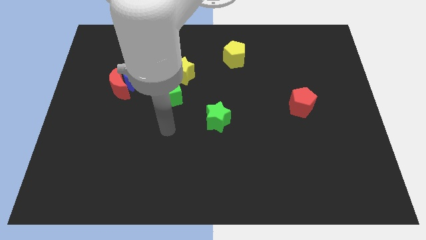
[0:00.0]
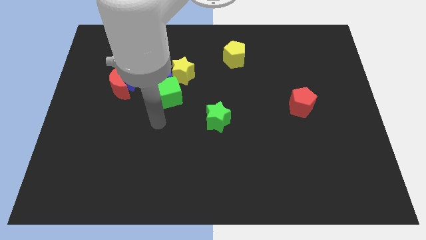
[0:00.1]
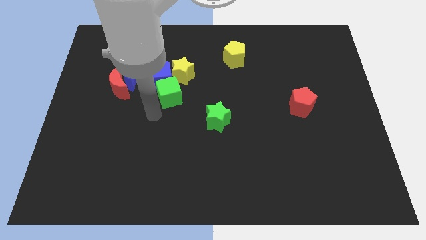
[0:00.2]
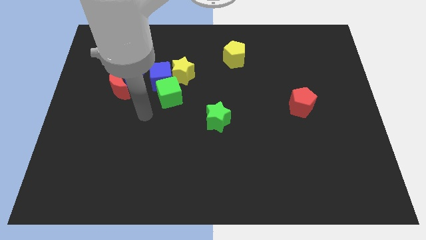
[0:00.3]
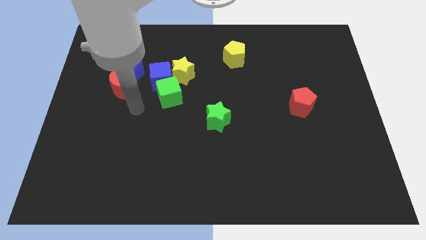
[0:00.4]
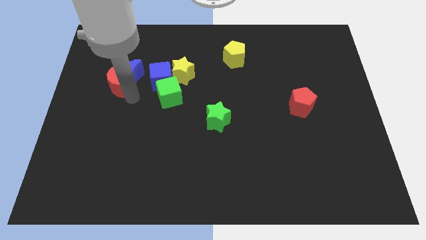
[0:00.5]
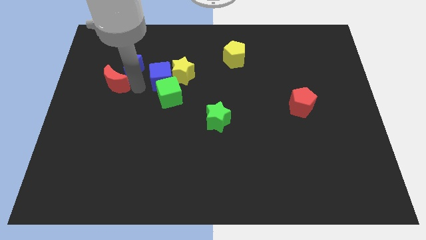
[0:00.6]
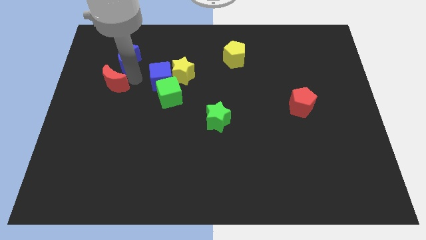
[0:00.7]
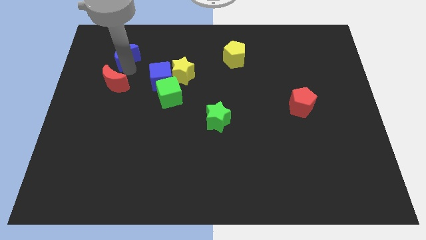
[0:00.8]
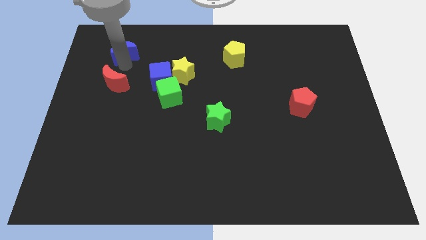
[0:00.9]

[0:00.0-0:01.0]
move the red moon away from the blue moon

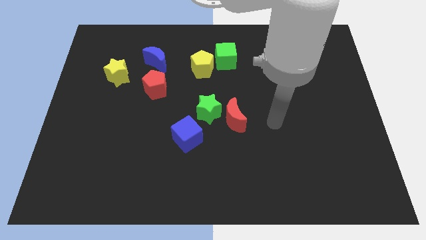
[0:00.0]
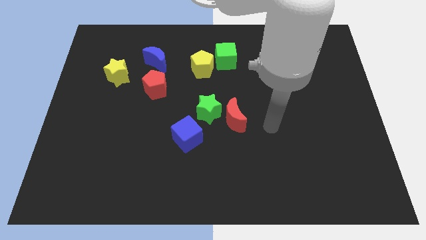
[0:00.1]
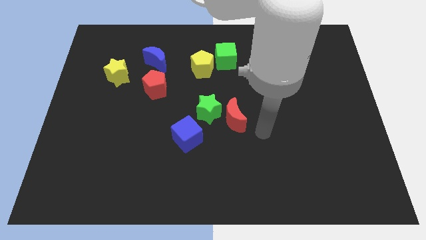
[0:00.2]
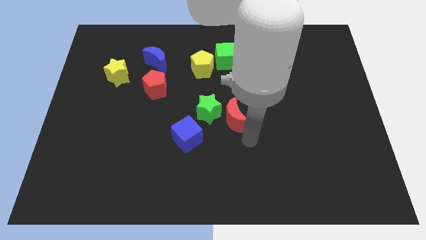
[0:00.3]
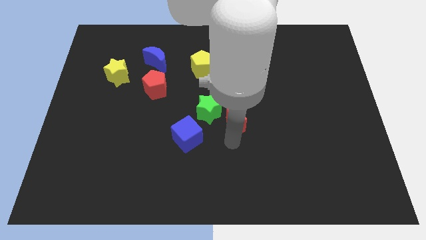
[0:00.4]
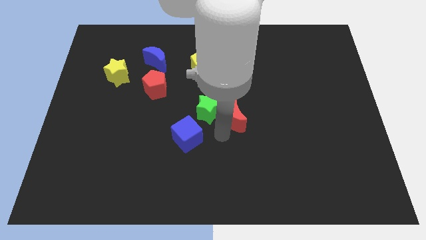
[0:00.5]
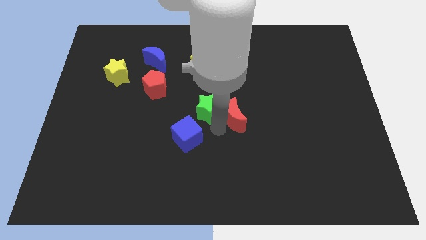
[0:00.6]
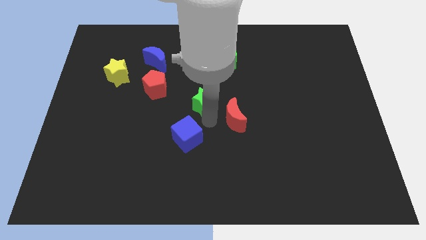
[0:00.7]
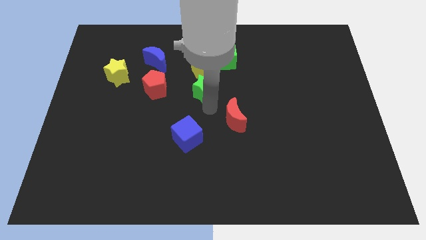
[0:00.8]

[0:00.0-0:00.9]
pull the red moon apart from the green star

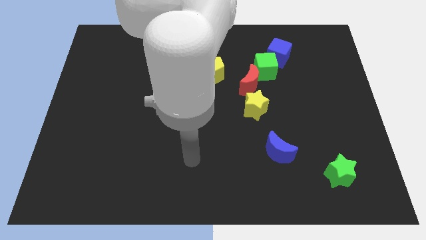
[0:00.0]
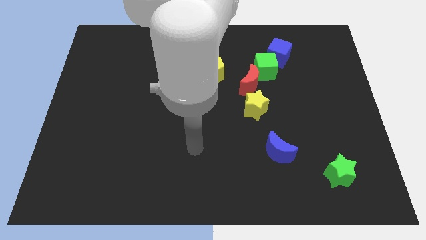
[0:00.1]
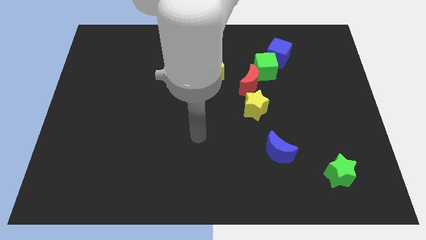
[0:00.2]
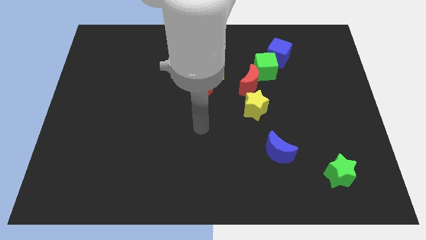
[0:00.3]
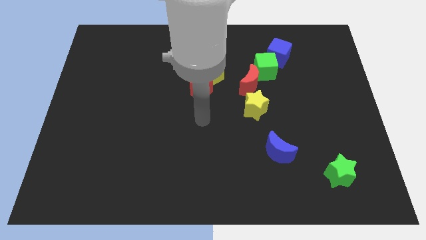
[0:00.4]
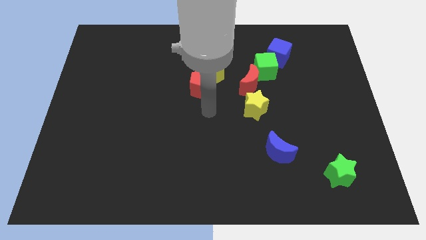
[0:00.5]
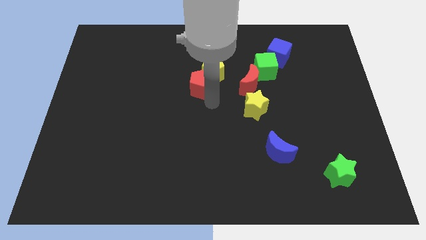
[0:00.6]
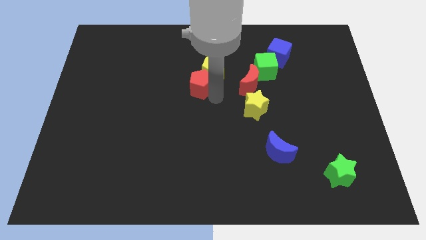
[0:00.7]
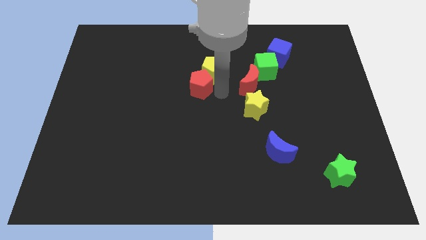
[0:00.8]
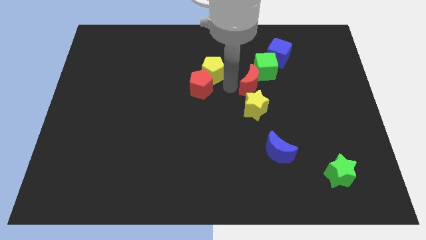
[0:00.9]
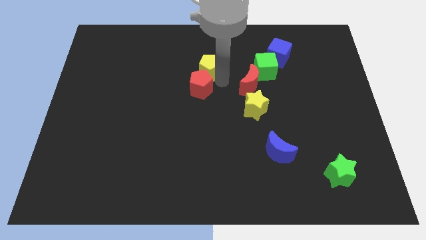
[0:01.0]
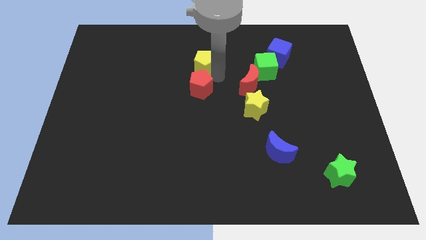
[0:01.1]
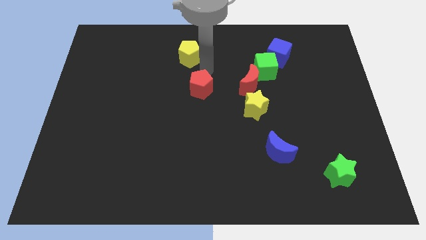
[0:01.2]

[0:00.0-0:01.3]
pull the red pentagon apart from the yellow pentagon

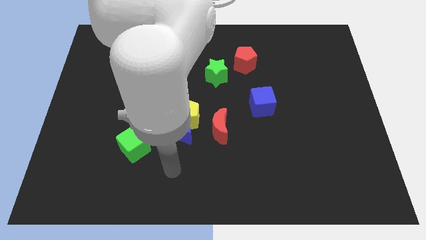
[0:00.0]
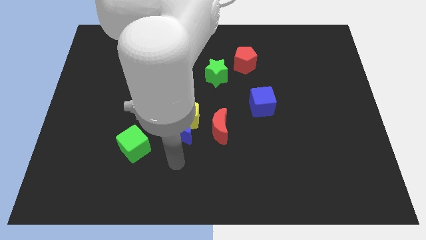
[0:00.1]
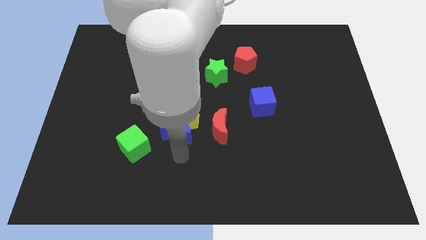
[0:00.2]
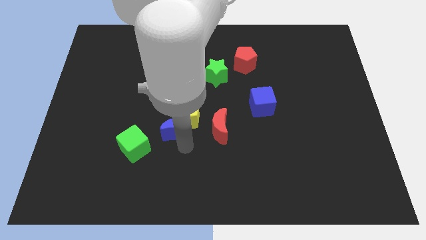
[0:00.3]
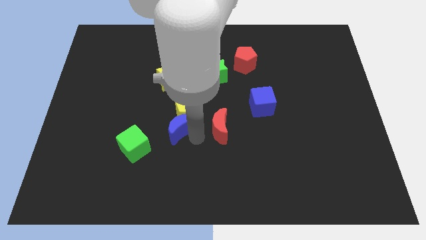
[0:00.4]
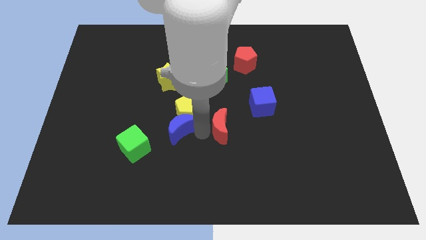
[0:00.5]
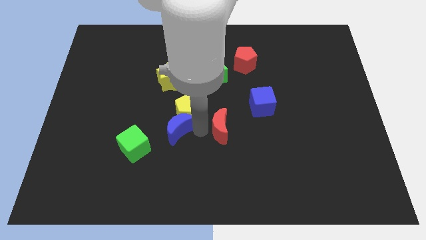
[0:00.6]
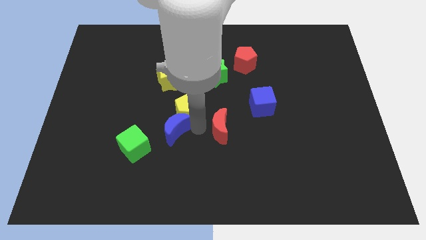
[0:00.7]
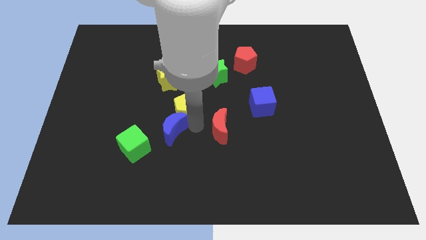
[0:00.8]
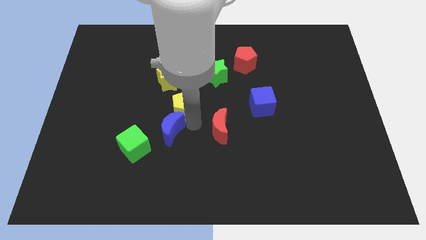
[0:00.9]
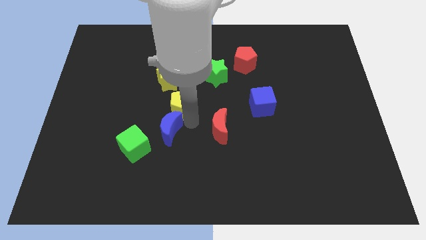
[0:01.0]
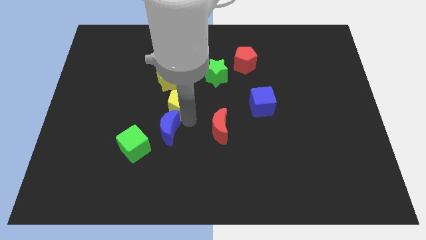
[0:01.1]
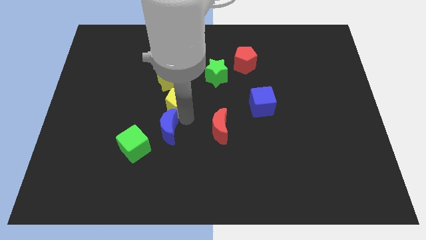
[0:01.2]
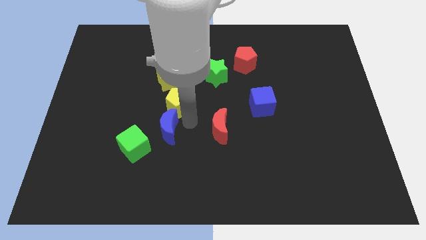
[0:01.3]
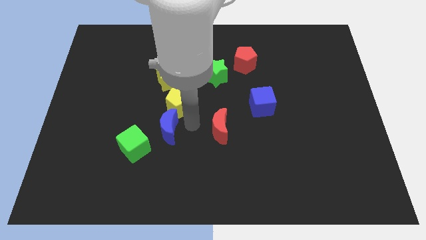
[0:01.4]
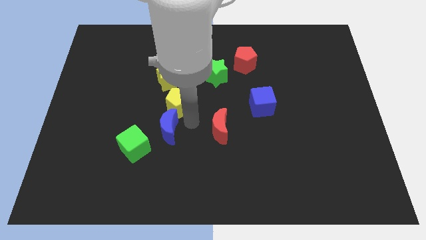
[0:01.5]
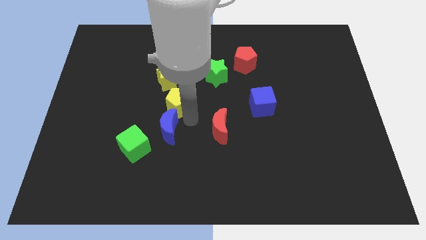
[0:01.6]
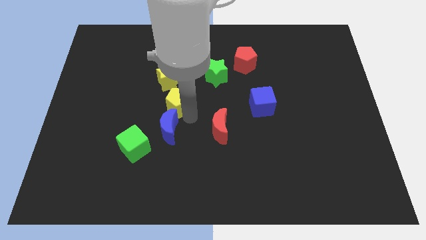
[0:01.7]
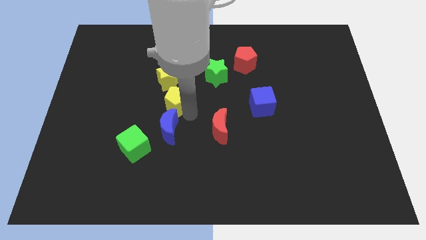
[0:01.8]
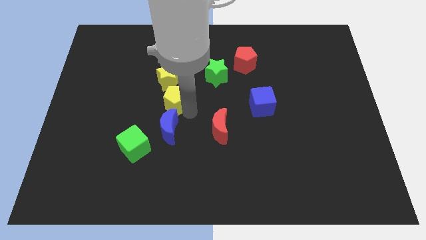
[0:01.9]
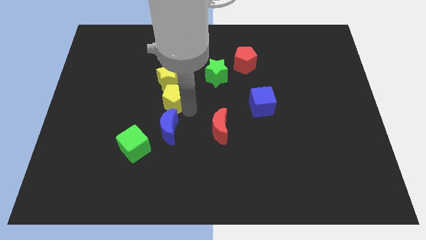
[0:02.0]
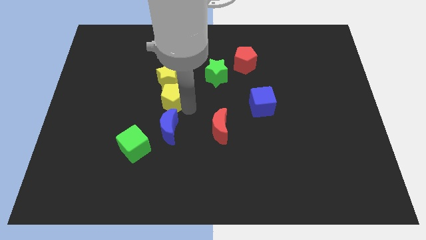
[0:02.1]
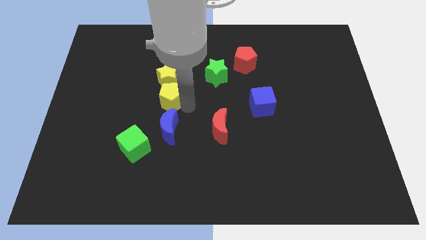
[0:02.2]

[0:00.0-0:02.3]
separate the yellow pentagon from the blue moon and red moon

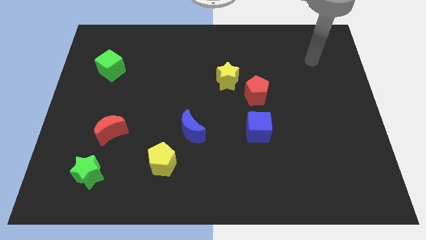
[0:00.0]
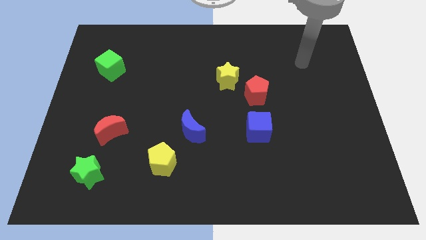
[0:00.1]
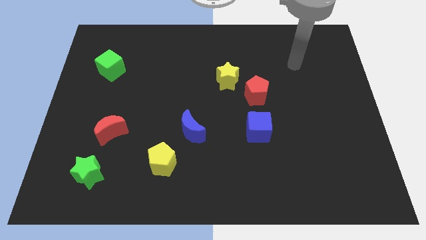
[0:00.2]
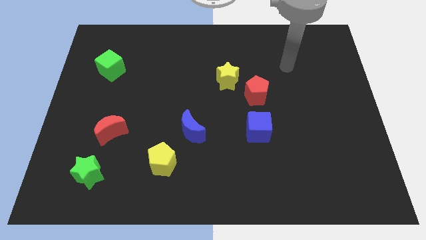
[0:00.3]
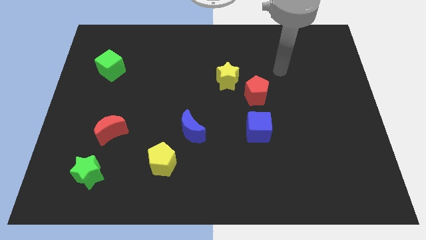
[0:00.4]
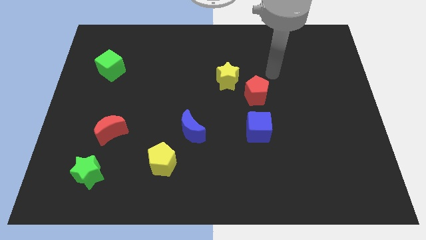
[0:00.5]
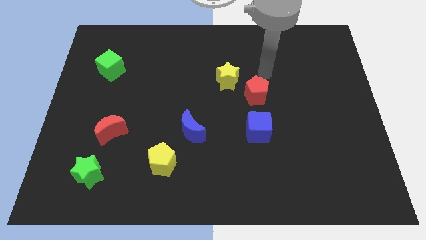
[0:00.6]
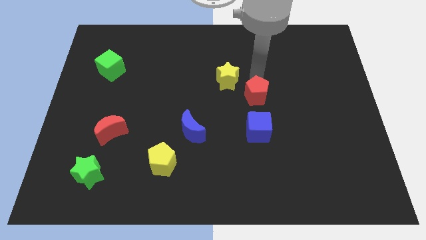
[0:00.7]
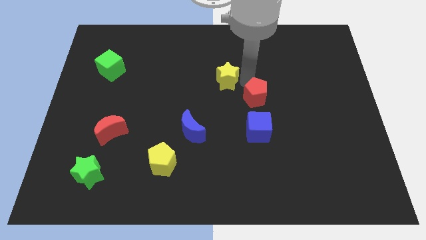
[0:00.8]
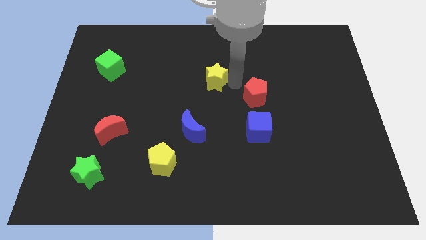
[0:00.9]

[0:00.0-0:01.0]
separate the red pentagon from the yellow star

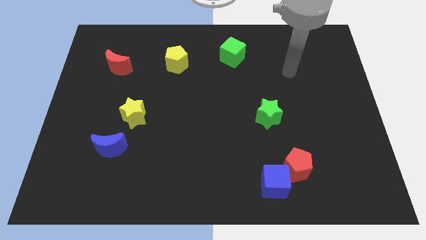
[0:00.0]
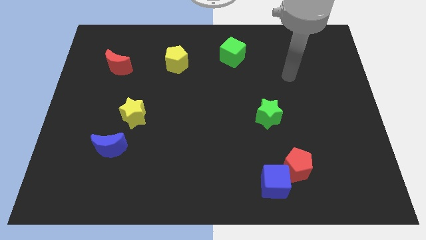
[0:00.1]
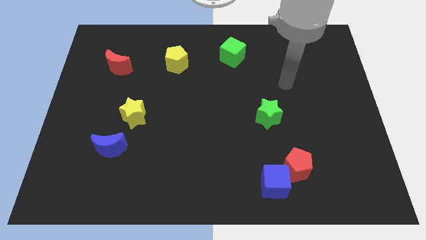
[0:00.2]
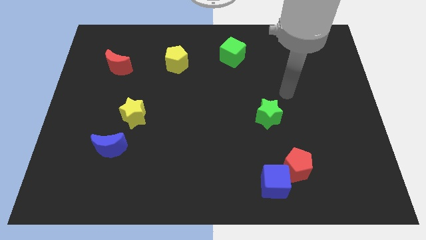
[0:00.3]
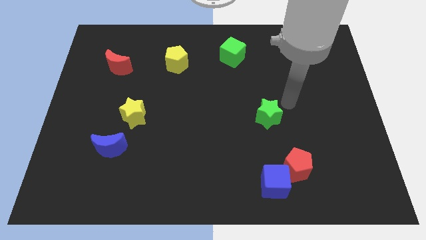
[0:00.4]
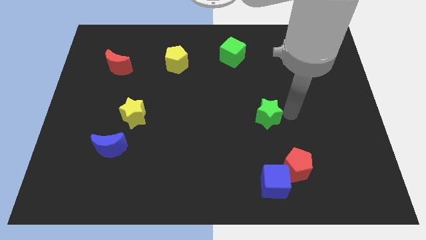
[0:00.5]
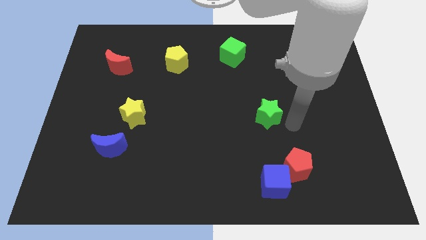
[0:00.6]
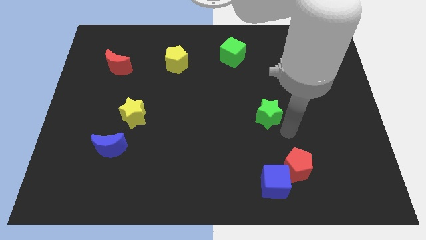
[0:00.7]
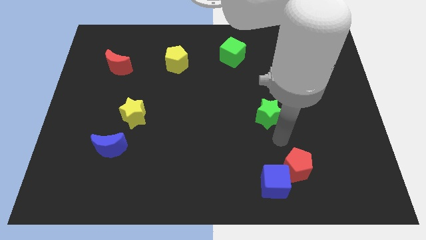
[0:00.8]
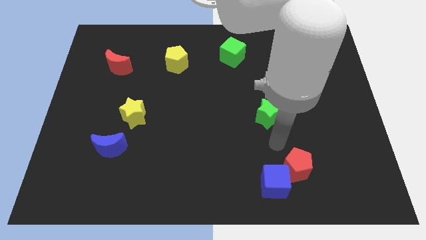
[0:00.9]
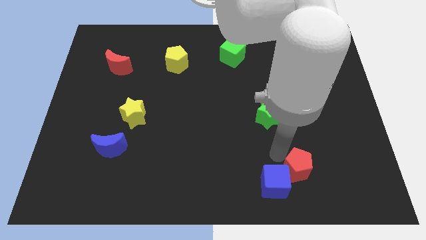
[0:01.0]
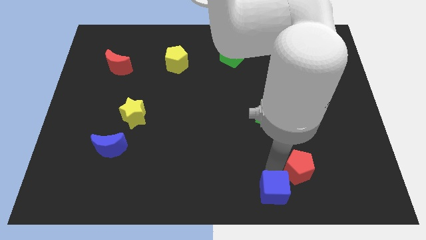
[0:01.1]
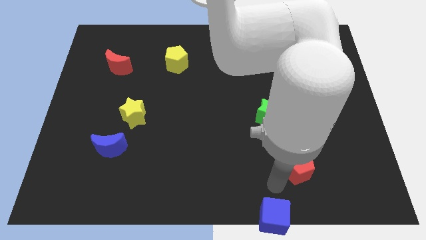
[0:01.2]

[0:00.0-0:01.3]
separate the red pentagon from the blue cube

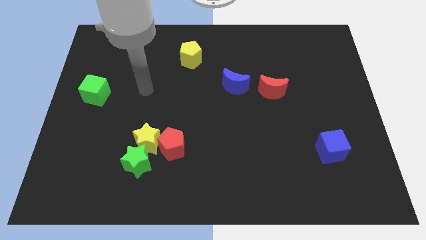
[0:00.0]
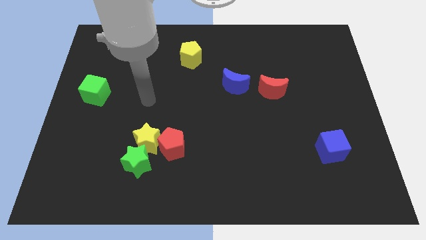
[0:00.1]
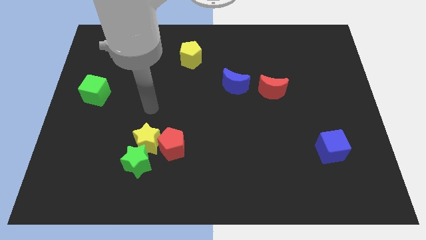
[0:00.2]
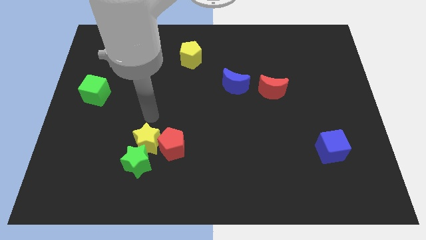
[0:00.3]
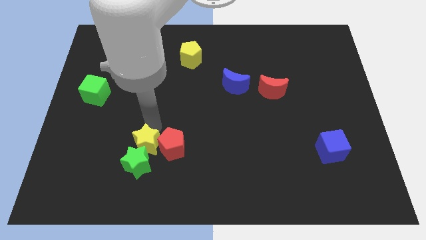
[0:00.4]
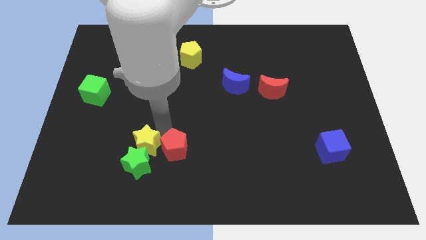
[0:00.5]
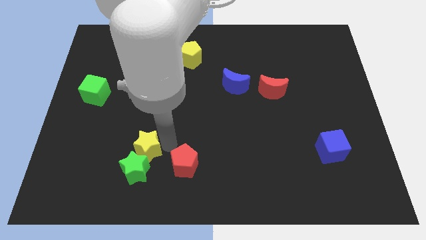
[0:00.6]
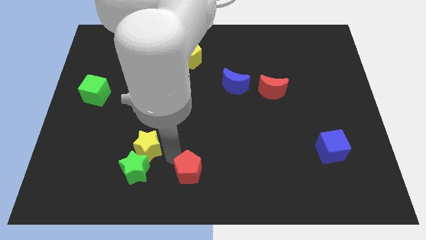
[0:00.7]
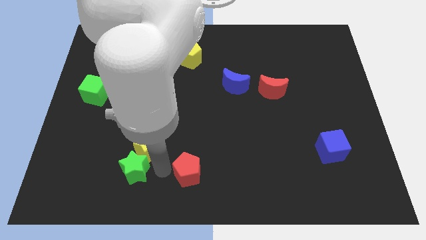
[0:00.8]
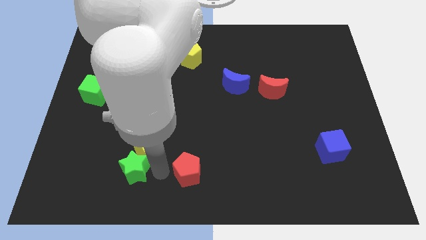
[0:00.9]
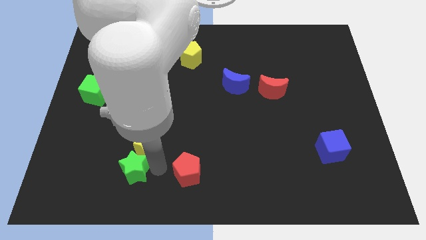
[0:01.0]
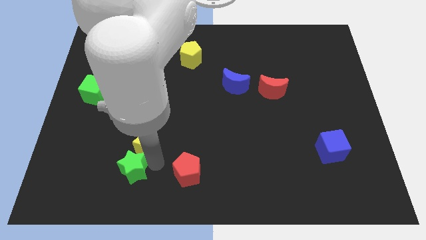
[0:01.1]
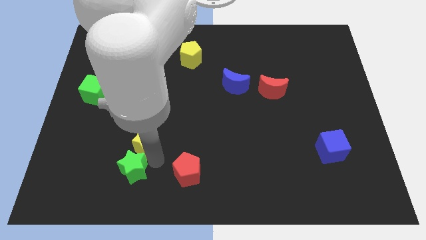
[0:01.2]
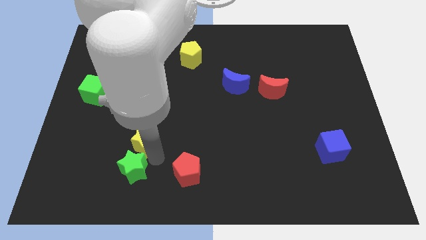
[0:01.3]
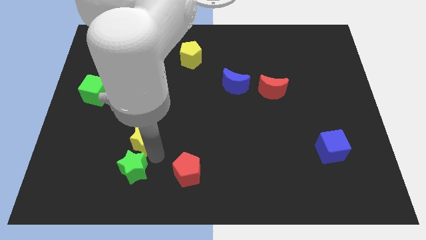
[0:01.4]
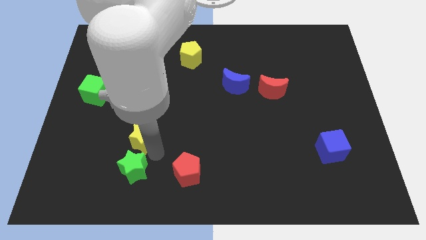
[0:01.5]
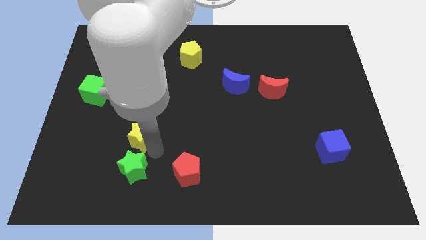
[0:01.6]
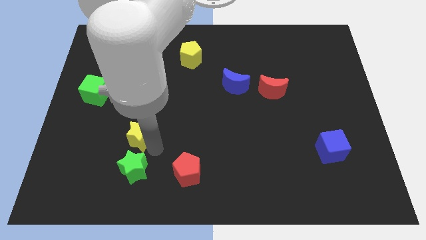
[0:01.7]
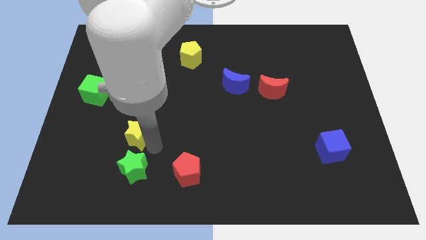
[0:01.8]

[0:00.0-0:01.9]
move the yellow star away from the green star and red pentagon
